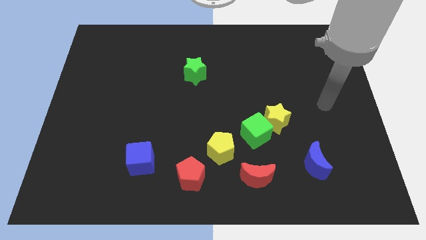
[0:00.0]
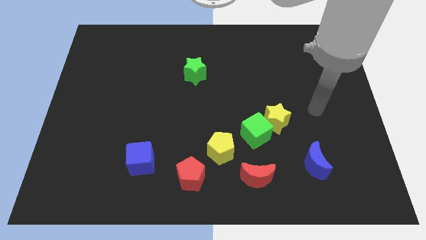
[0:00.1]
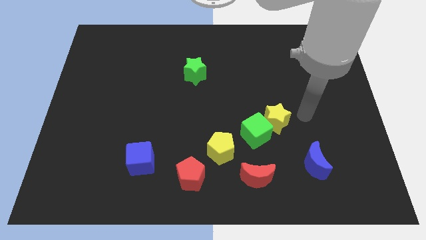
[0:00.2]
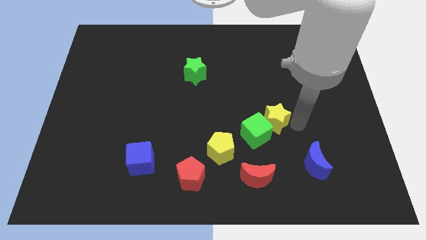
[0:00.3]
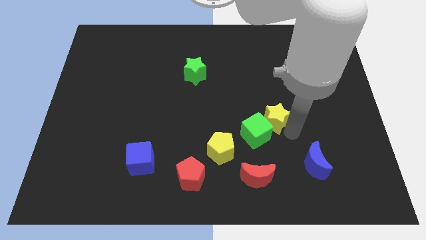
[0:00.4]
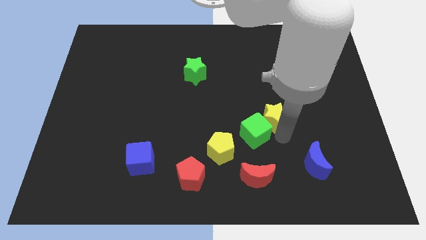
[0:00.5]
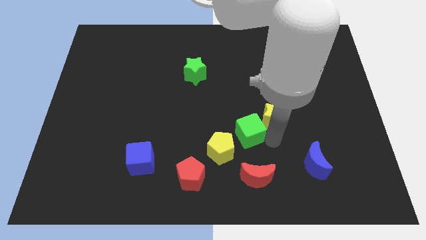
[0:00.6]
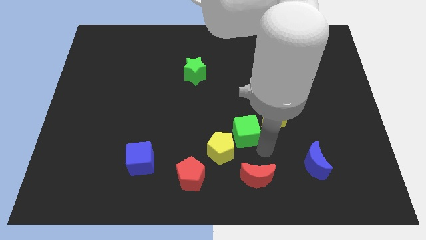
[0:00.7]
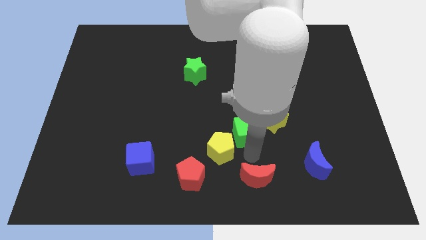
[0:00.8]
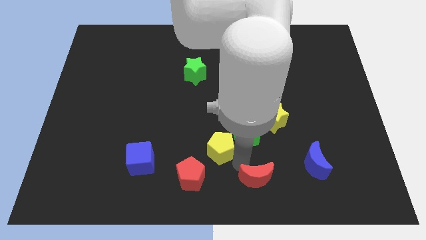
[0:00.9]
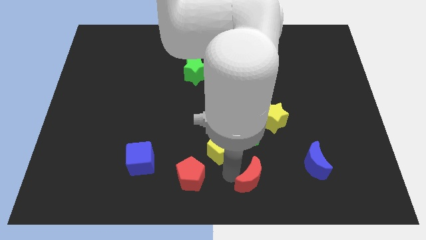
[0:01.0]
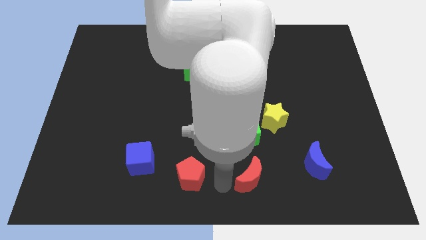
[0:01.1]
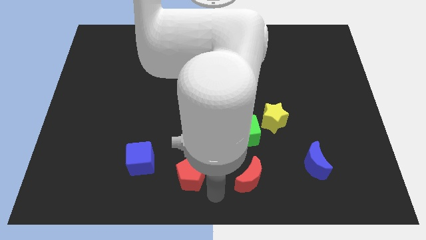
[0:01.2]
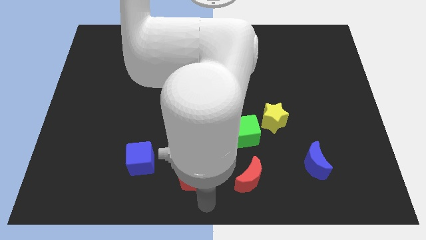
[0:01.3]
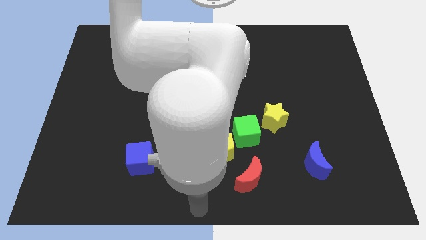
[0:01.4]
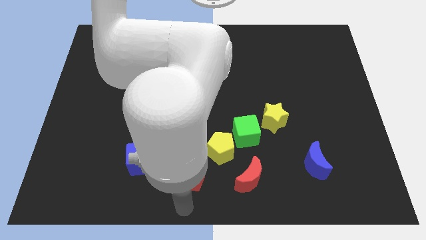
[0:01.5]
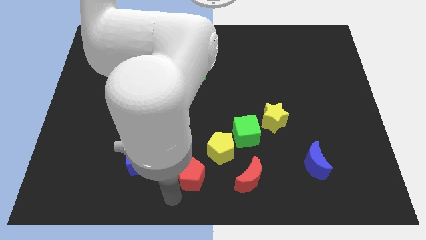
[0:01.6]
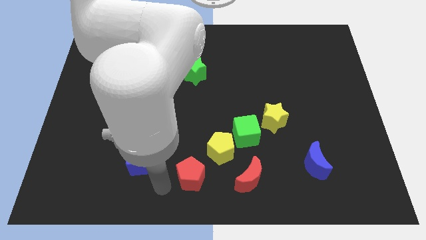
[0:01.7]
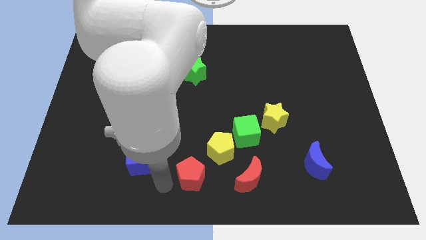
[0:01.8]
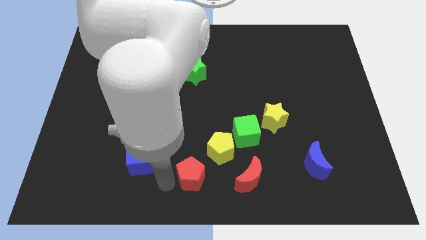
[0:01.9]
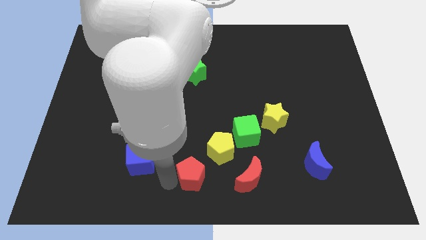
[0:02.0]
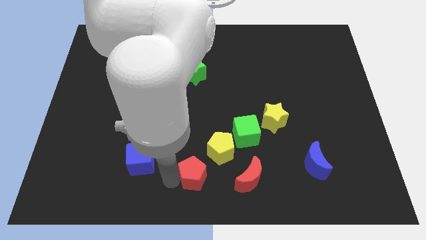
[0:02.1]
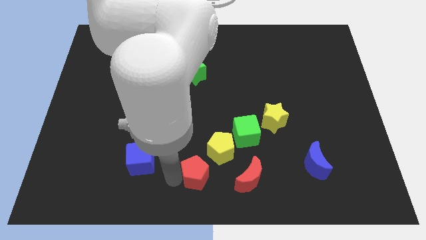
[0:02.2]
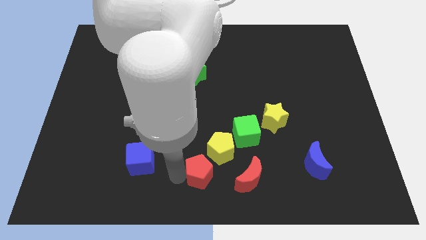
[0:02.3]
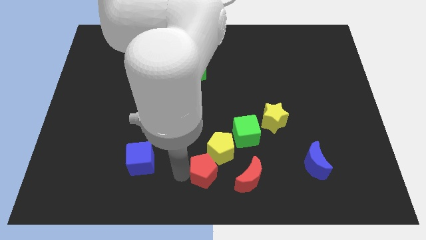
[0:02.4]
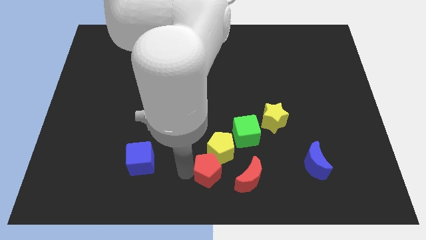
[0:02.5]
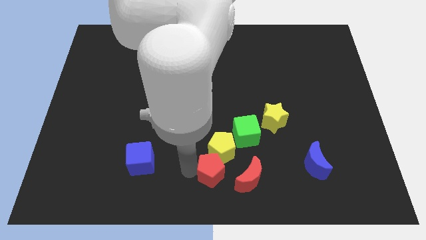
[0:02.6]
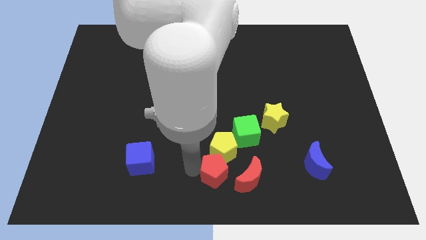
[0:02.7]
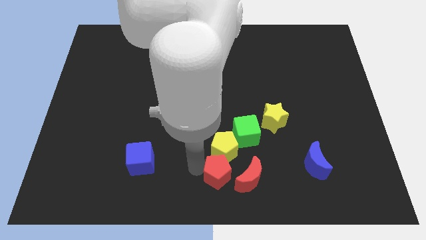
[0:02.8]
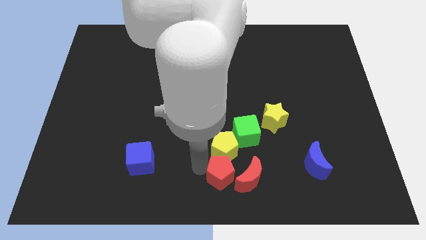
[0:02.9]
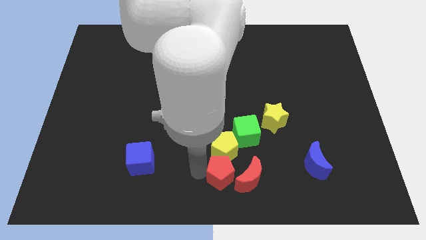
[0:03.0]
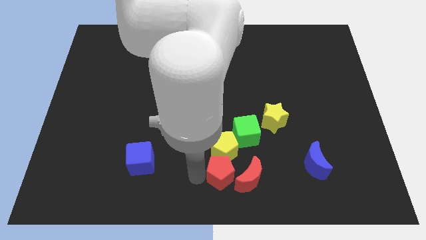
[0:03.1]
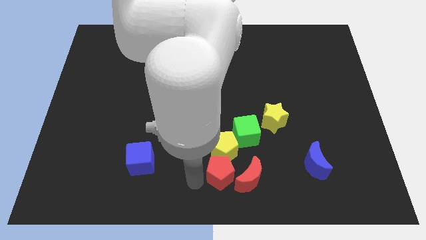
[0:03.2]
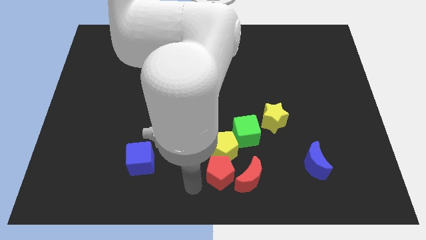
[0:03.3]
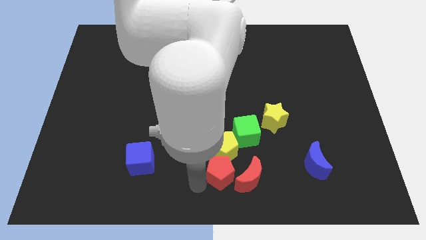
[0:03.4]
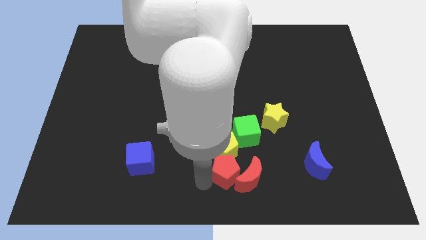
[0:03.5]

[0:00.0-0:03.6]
slide the red pentagon slightly to the right

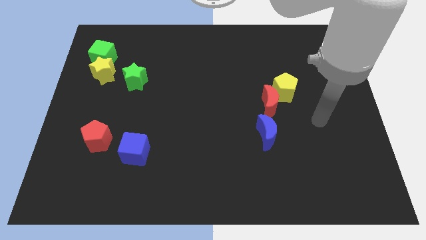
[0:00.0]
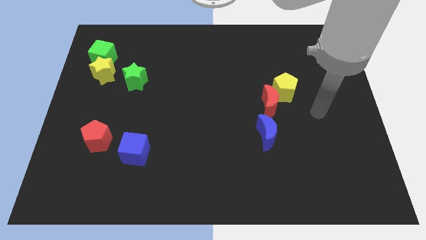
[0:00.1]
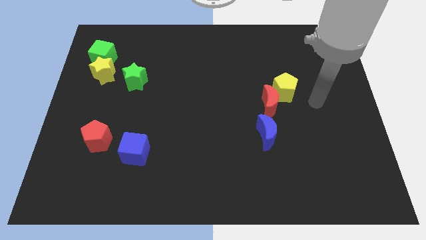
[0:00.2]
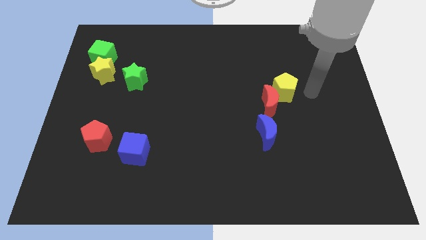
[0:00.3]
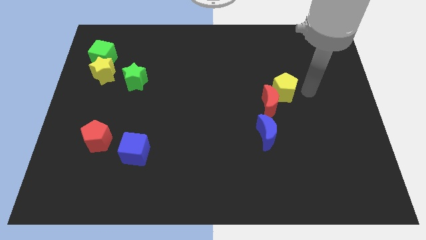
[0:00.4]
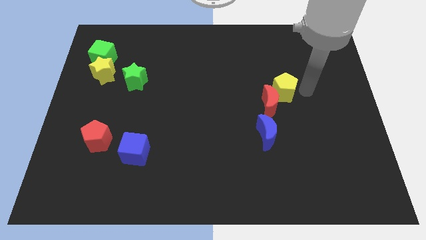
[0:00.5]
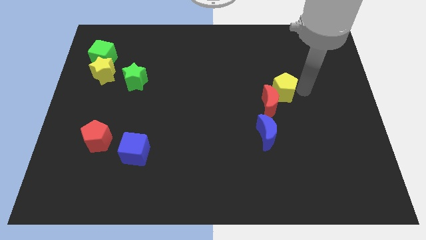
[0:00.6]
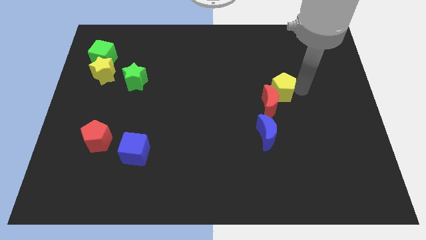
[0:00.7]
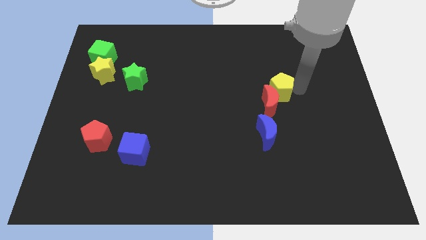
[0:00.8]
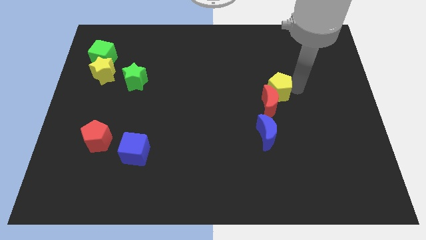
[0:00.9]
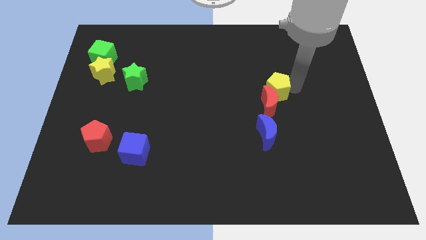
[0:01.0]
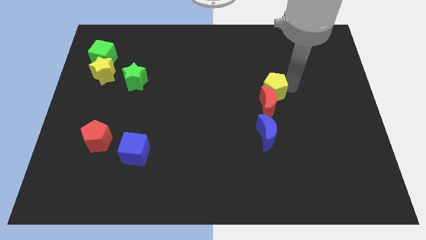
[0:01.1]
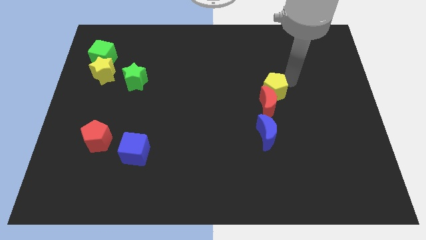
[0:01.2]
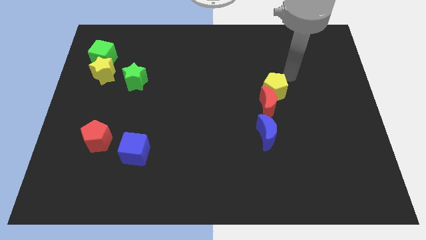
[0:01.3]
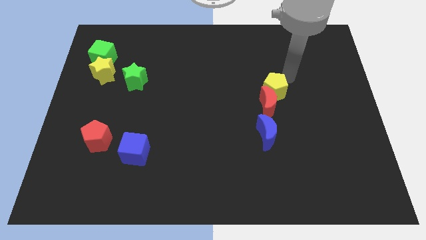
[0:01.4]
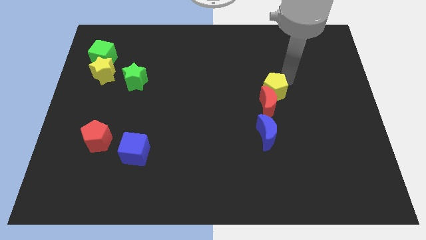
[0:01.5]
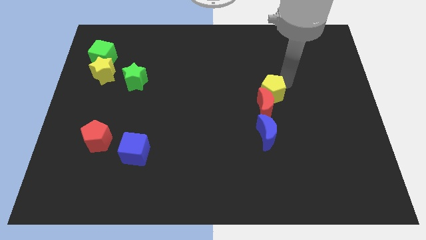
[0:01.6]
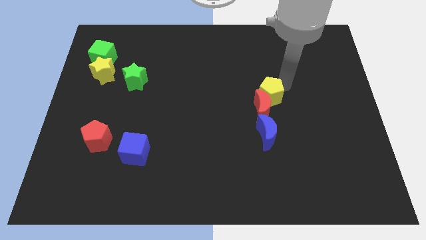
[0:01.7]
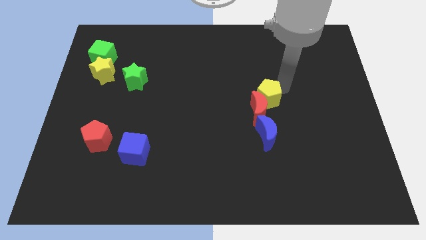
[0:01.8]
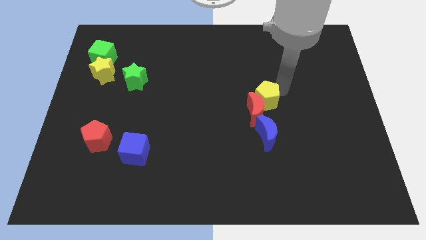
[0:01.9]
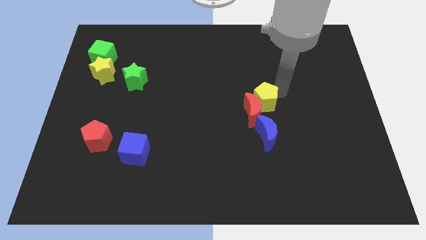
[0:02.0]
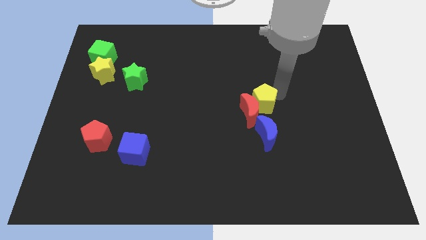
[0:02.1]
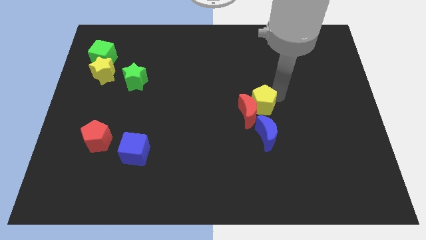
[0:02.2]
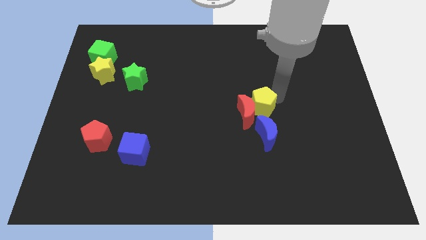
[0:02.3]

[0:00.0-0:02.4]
move the yellow pentagon downwards and then left a little bit

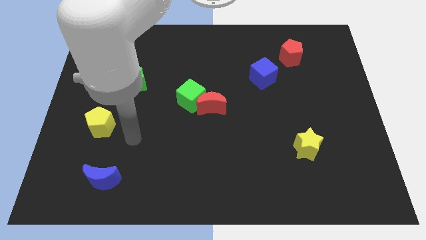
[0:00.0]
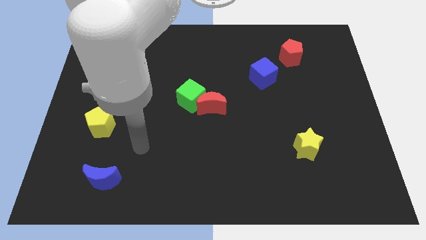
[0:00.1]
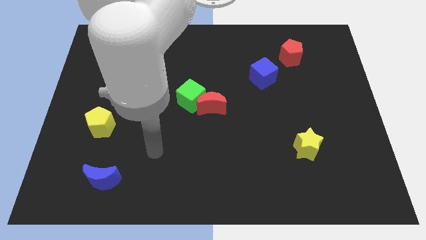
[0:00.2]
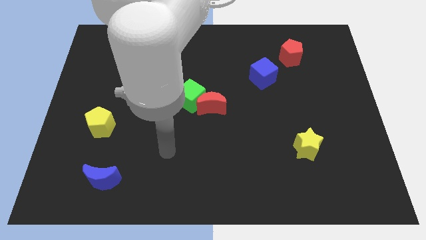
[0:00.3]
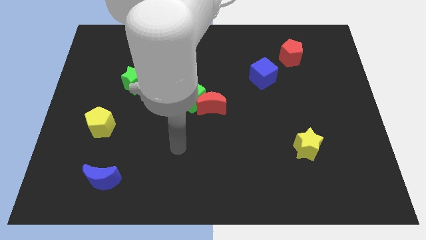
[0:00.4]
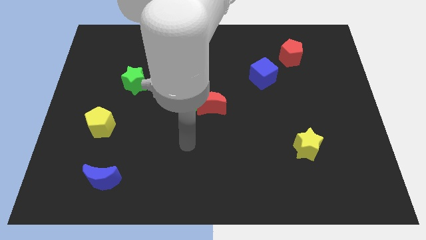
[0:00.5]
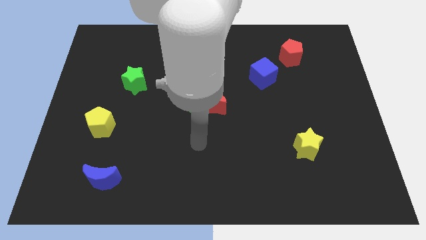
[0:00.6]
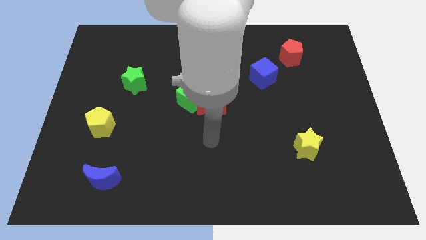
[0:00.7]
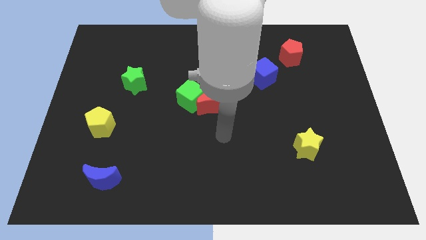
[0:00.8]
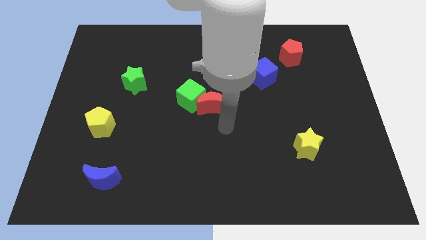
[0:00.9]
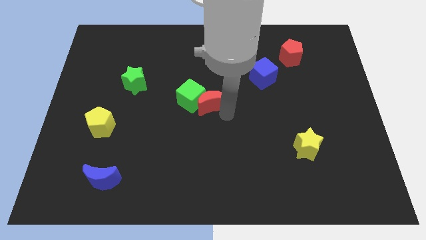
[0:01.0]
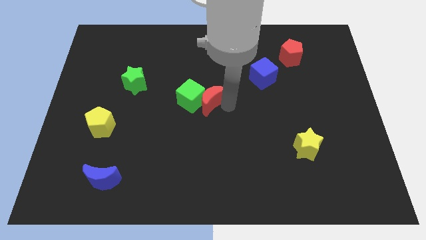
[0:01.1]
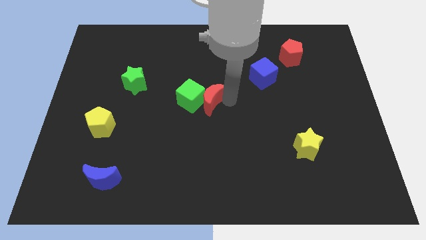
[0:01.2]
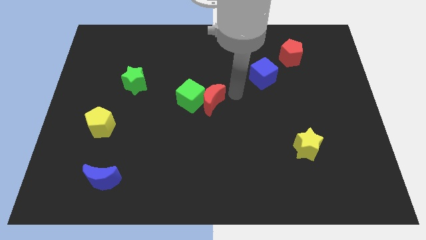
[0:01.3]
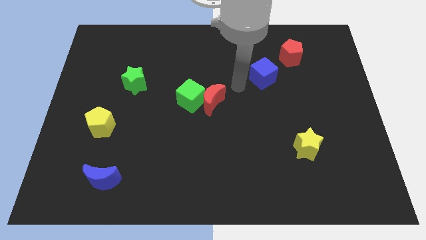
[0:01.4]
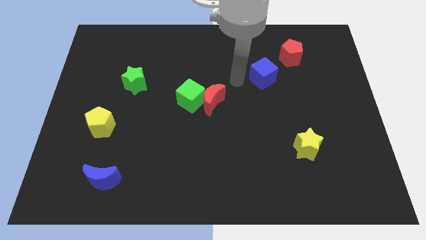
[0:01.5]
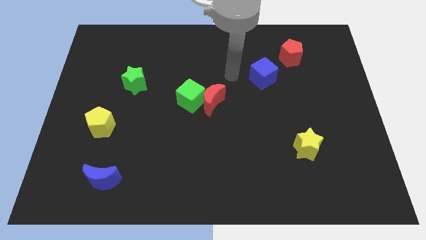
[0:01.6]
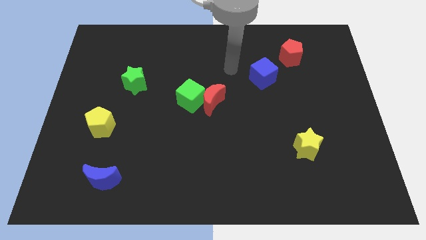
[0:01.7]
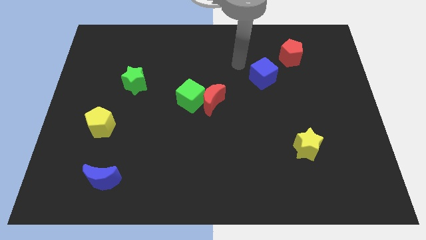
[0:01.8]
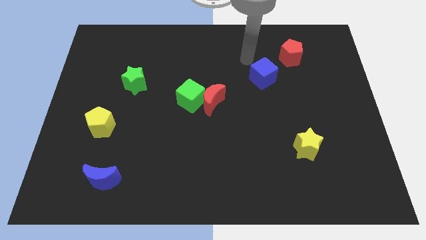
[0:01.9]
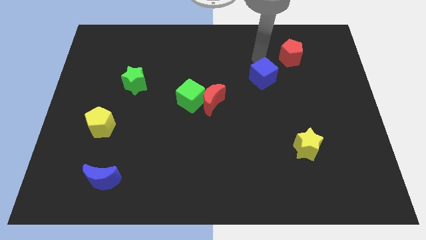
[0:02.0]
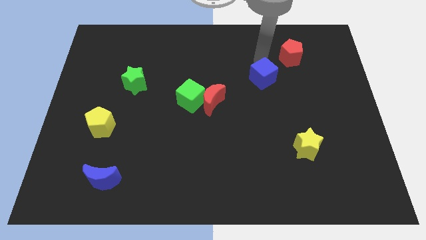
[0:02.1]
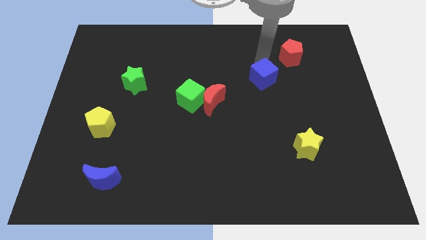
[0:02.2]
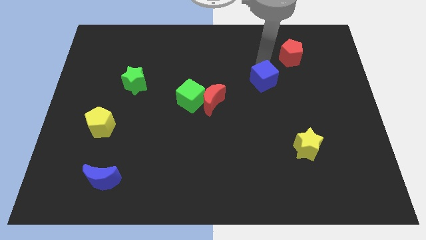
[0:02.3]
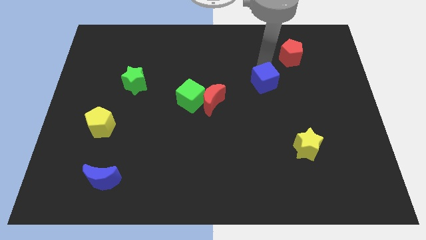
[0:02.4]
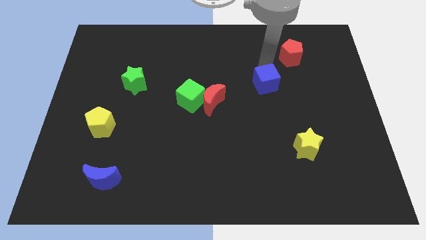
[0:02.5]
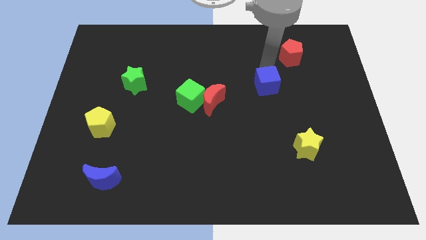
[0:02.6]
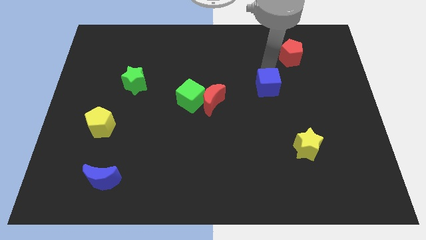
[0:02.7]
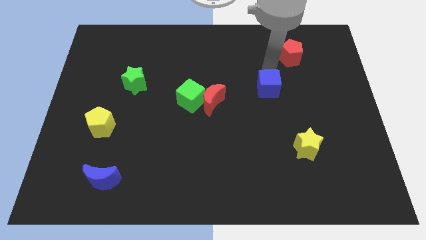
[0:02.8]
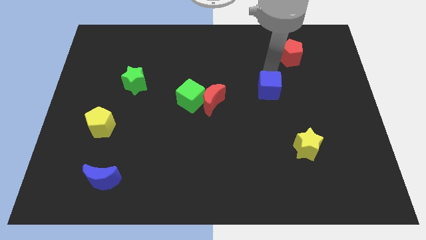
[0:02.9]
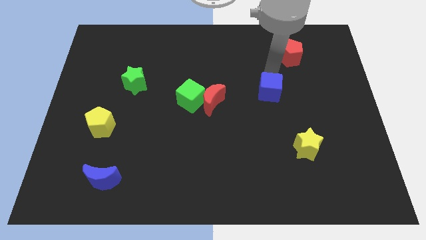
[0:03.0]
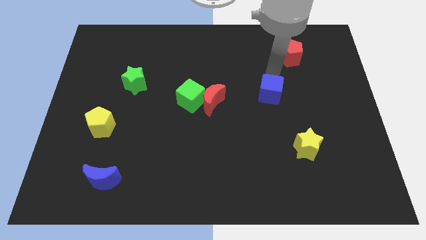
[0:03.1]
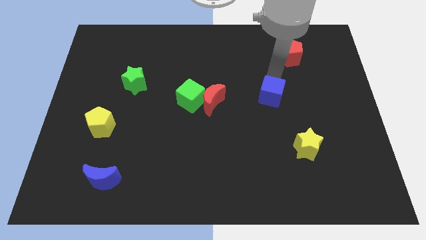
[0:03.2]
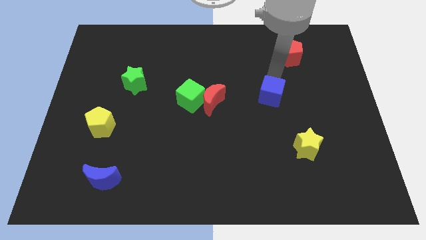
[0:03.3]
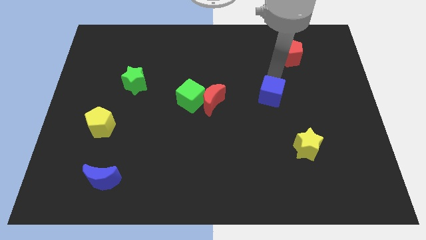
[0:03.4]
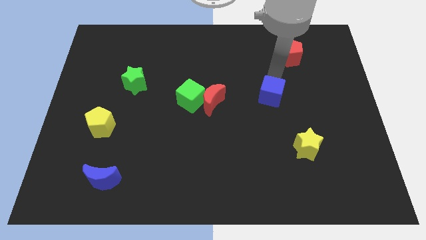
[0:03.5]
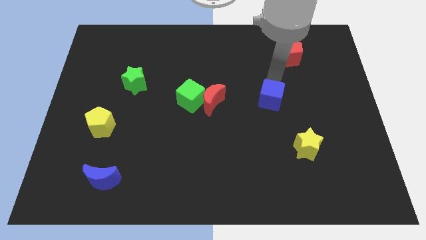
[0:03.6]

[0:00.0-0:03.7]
slide the blue cube a bit down
